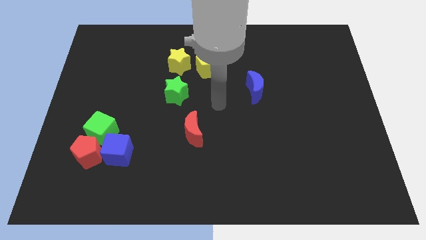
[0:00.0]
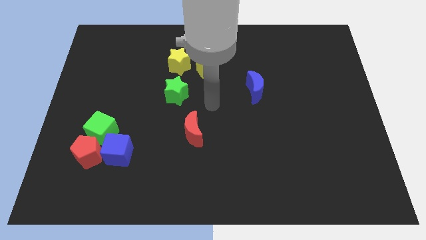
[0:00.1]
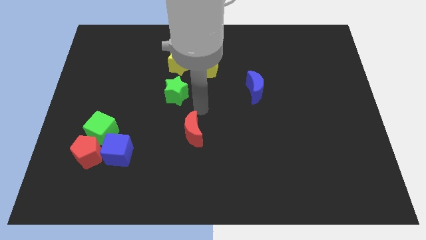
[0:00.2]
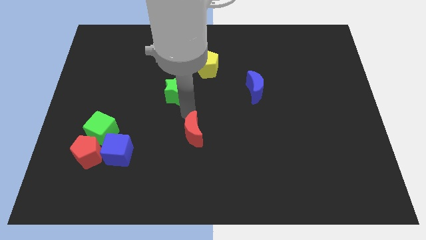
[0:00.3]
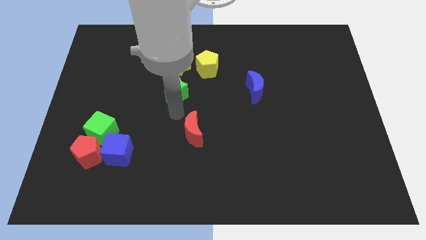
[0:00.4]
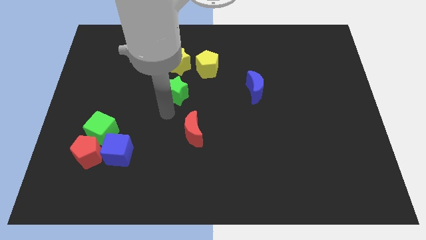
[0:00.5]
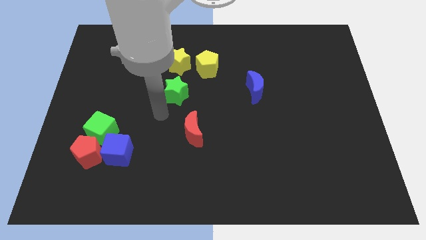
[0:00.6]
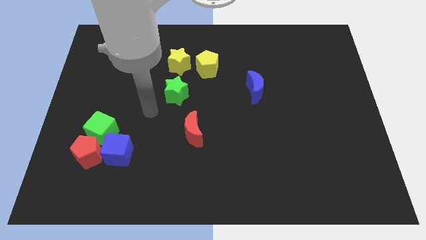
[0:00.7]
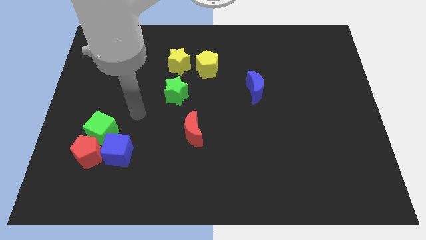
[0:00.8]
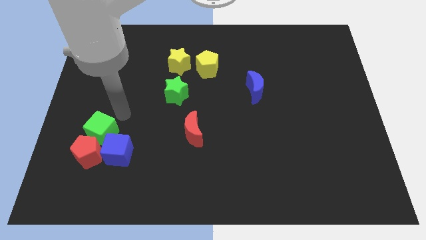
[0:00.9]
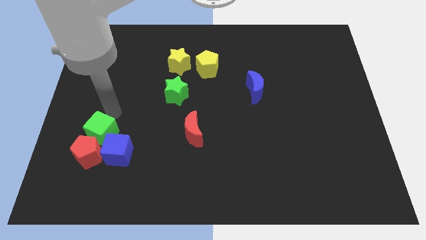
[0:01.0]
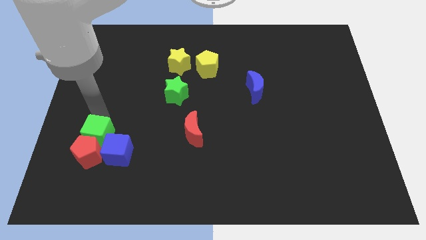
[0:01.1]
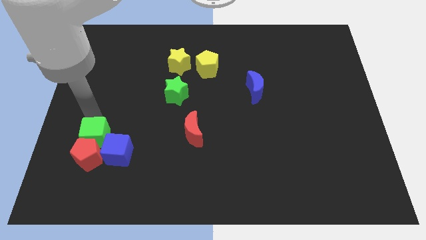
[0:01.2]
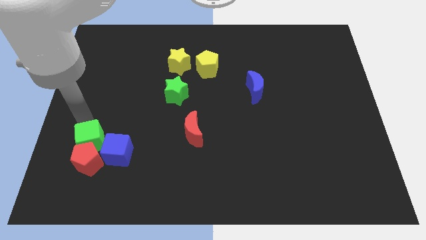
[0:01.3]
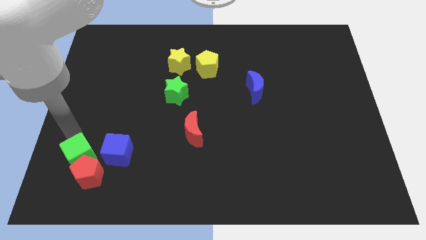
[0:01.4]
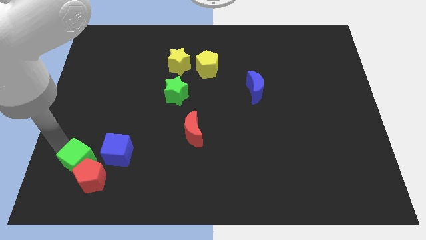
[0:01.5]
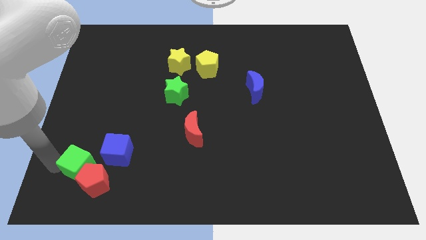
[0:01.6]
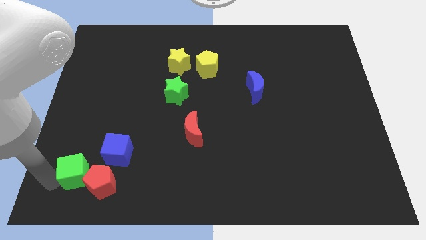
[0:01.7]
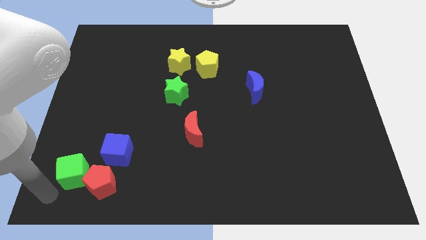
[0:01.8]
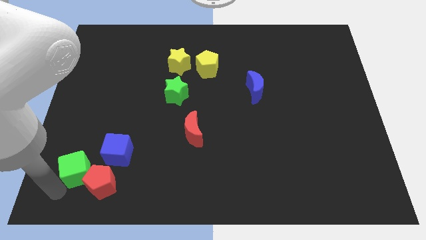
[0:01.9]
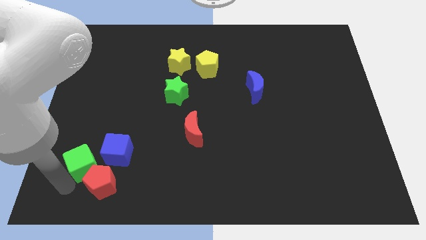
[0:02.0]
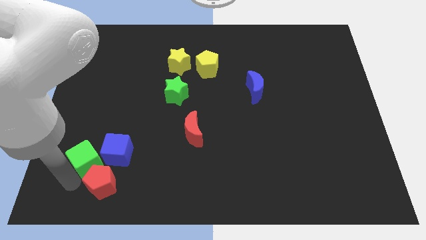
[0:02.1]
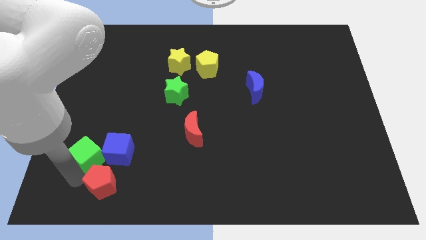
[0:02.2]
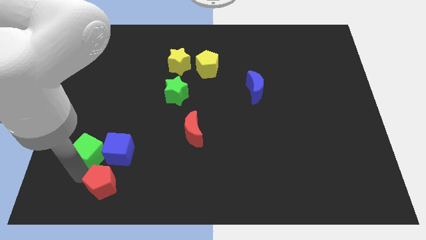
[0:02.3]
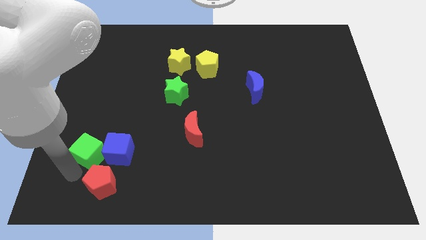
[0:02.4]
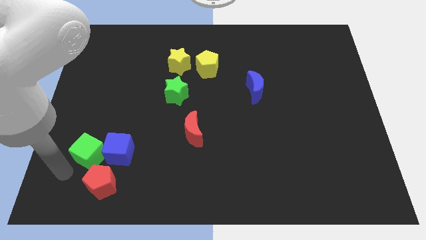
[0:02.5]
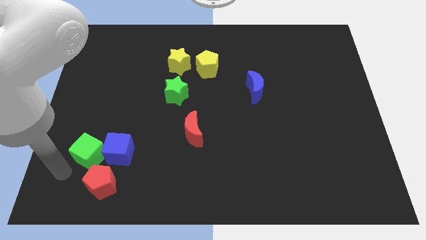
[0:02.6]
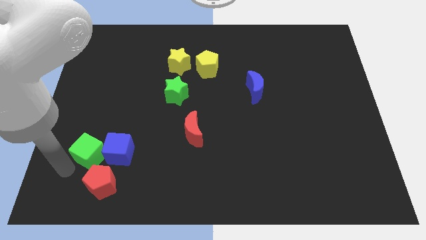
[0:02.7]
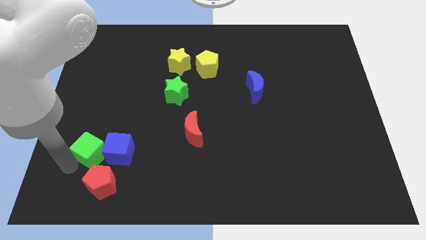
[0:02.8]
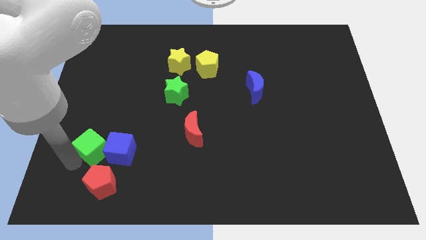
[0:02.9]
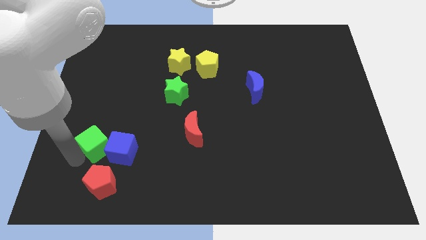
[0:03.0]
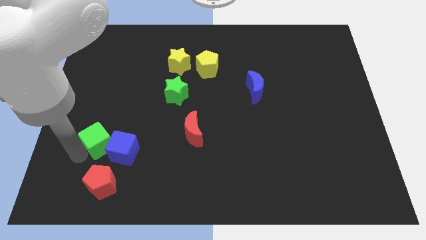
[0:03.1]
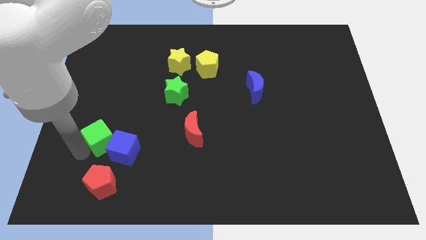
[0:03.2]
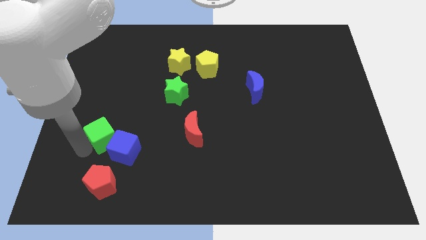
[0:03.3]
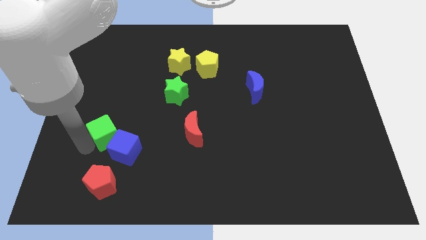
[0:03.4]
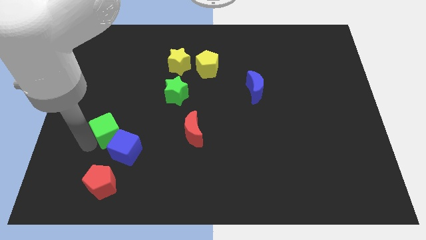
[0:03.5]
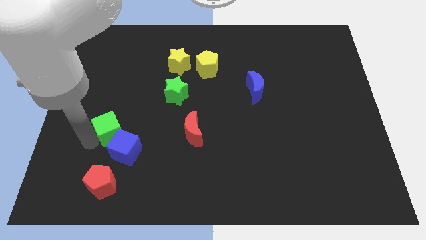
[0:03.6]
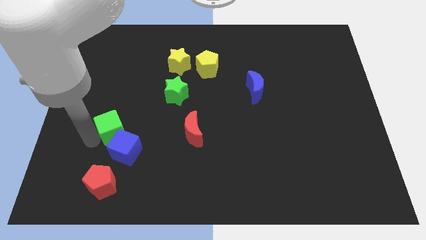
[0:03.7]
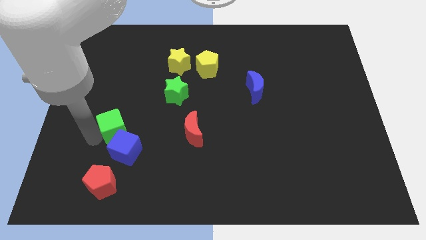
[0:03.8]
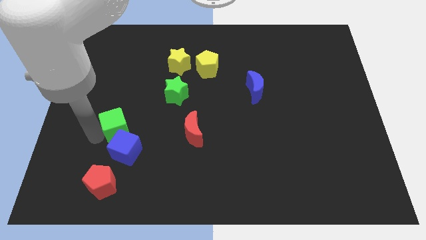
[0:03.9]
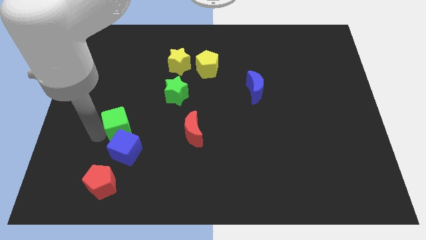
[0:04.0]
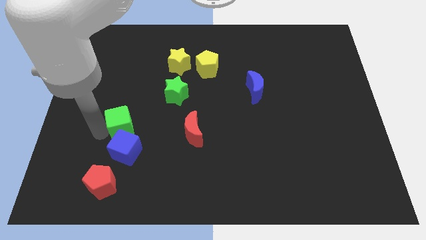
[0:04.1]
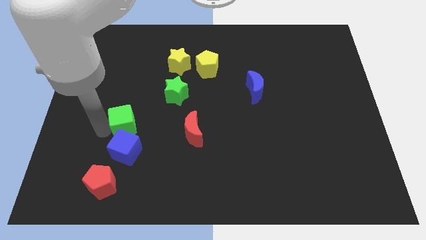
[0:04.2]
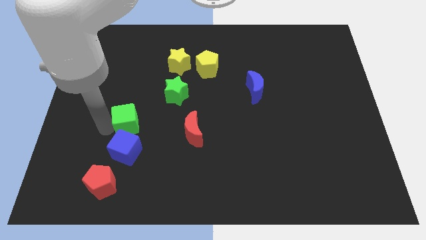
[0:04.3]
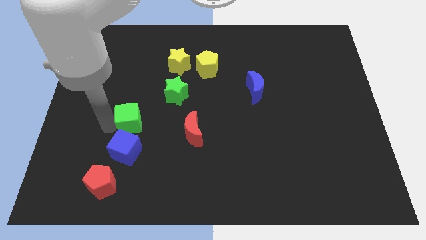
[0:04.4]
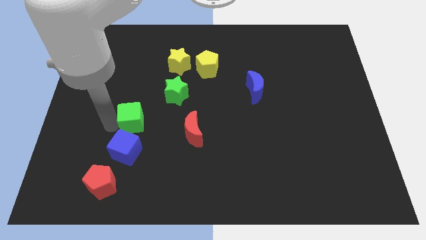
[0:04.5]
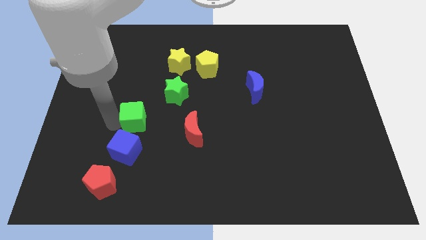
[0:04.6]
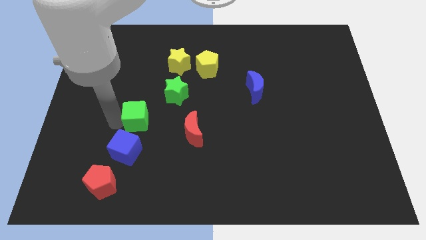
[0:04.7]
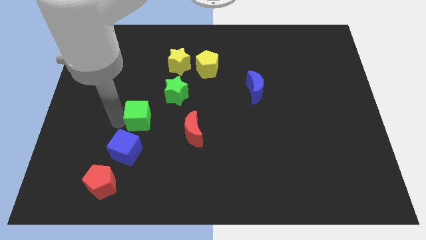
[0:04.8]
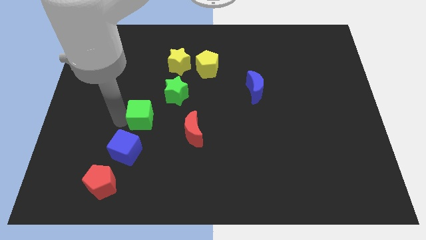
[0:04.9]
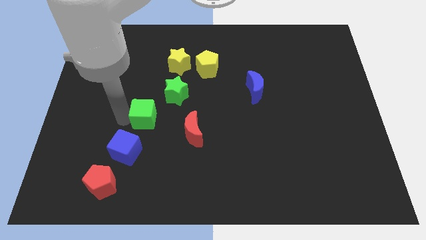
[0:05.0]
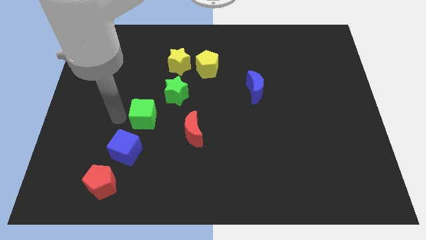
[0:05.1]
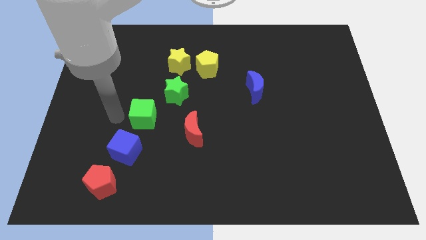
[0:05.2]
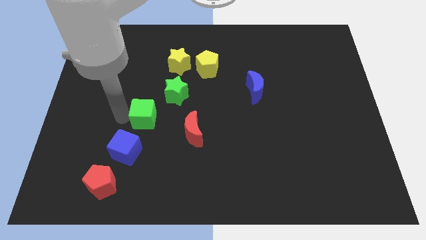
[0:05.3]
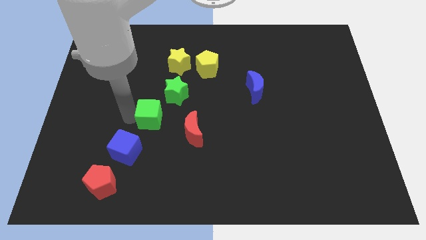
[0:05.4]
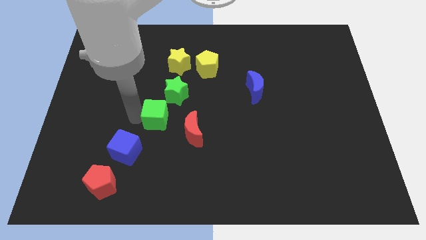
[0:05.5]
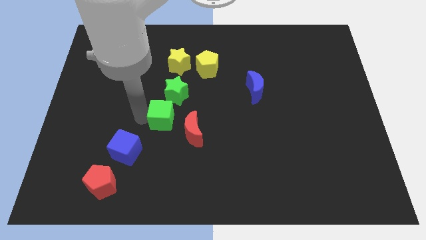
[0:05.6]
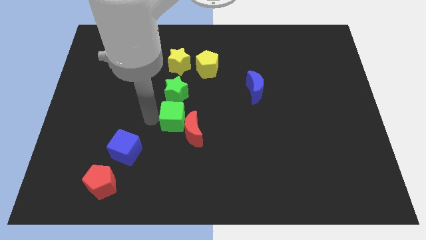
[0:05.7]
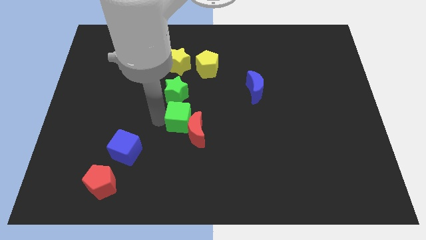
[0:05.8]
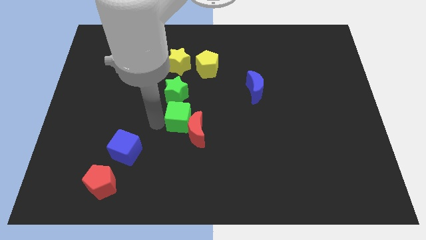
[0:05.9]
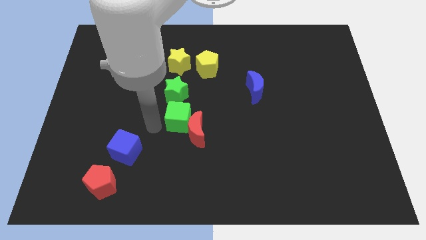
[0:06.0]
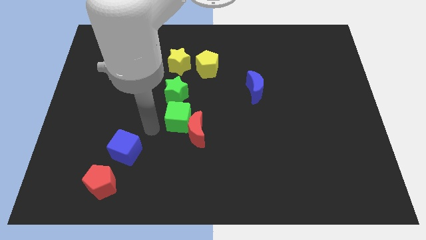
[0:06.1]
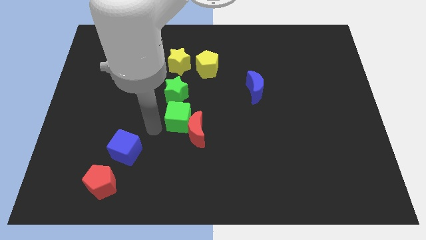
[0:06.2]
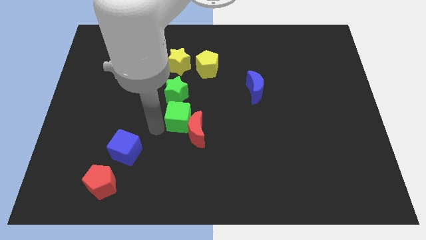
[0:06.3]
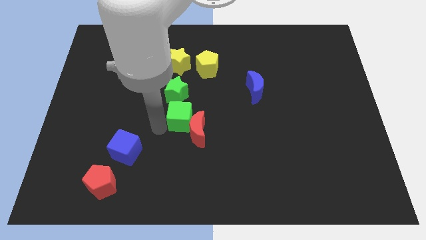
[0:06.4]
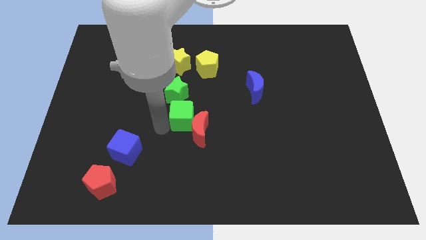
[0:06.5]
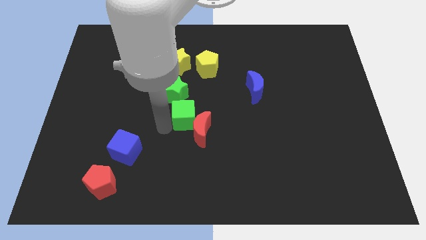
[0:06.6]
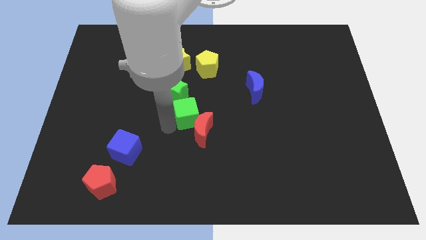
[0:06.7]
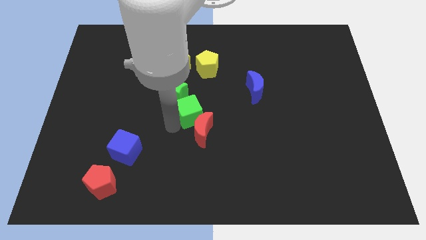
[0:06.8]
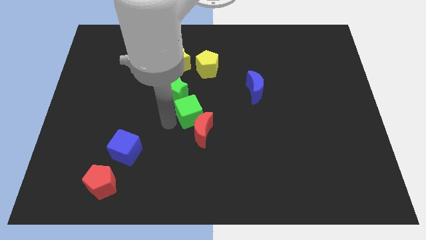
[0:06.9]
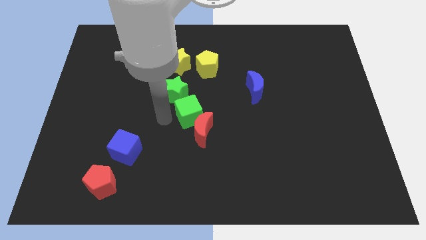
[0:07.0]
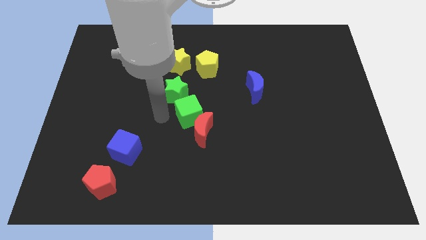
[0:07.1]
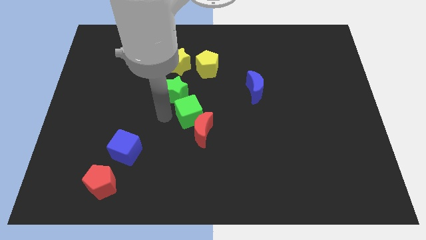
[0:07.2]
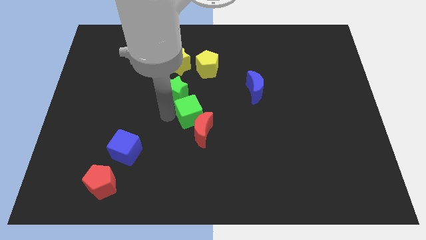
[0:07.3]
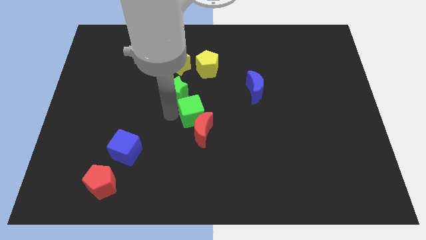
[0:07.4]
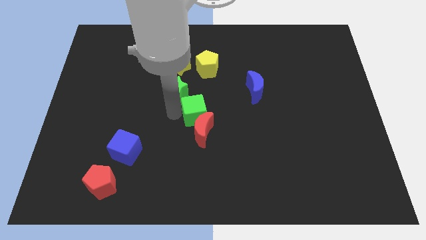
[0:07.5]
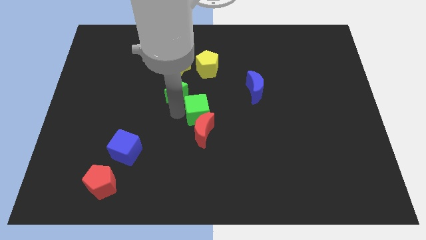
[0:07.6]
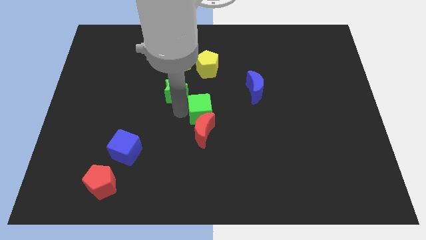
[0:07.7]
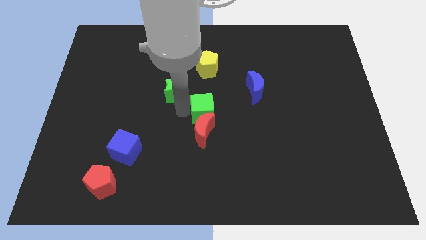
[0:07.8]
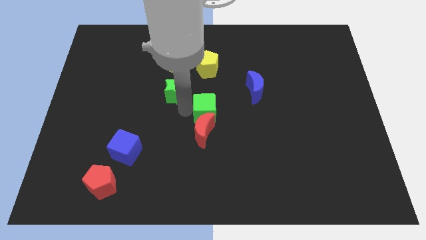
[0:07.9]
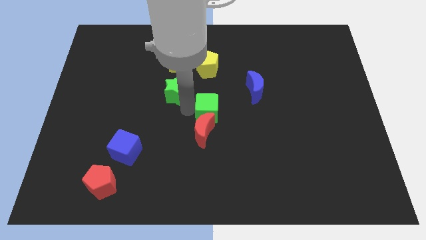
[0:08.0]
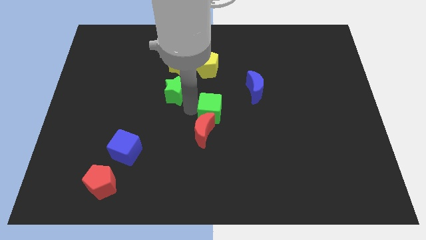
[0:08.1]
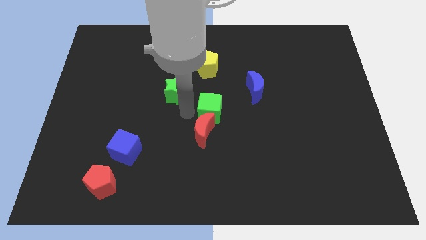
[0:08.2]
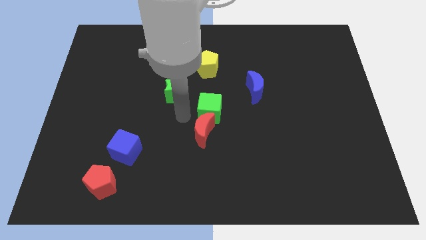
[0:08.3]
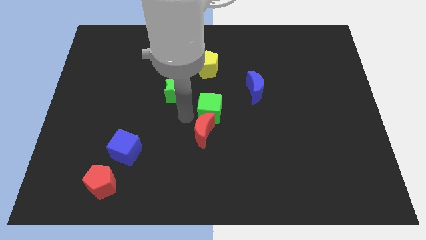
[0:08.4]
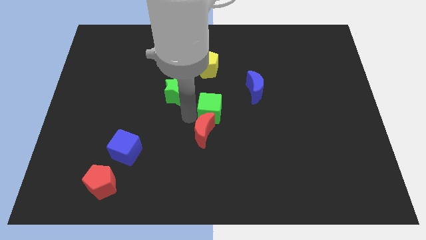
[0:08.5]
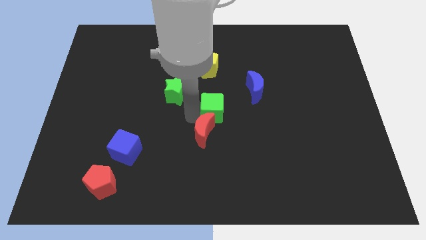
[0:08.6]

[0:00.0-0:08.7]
move the green cube diagonally down and to the left of the blue moon
